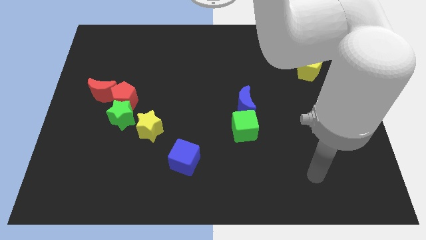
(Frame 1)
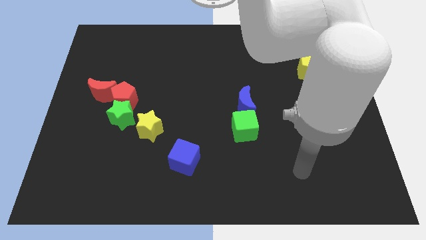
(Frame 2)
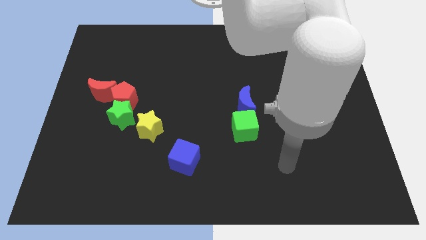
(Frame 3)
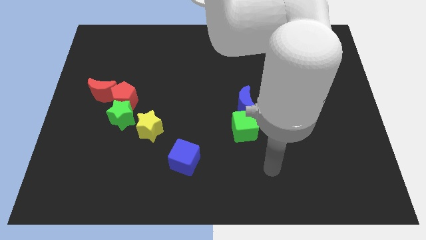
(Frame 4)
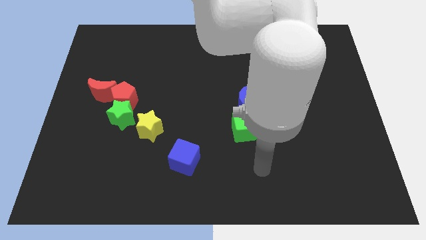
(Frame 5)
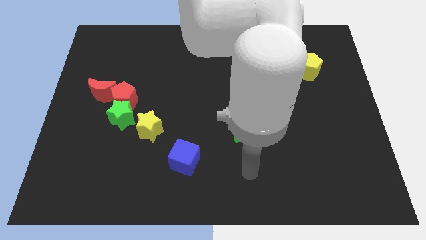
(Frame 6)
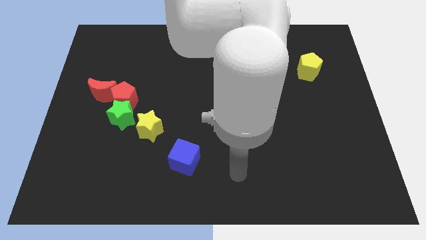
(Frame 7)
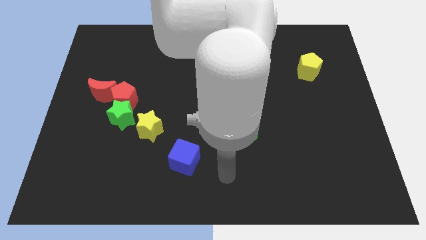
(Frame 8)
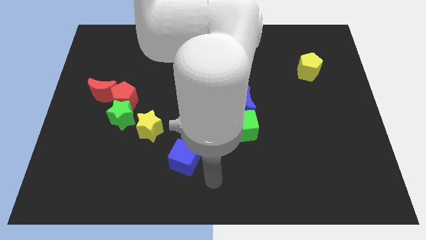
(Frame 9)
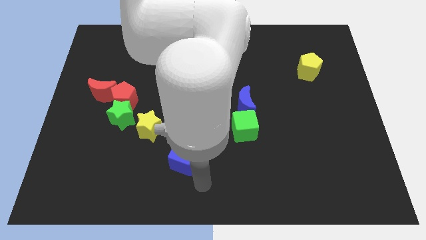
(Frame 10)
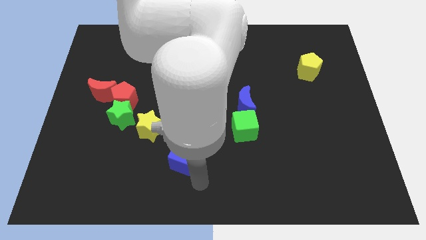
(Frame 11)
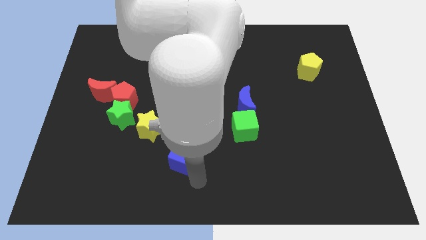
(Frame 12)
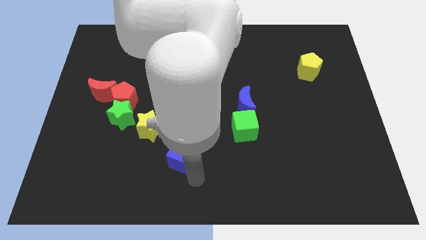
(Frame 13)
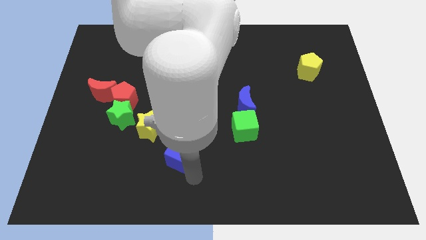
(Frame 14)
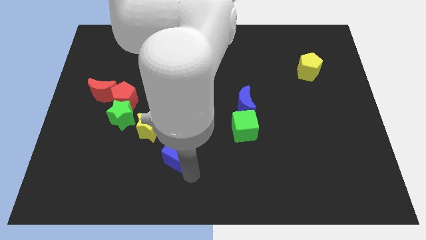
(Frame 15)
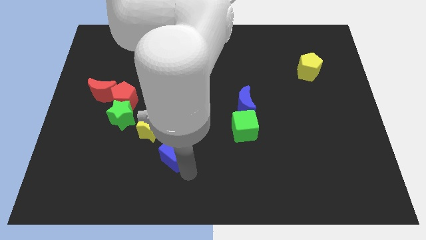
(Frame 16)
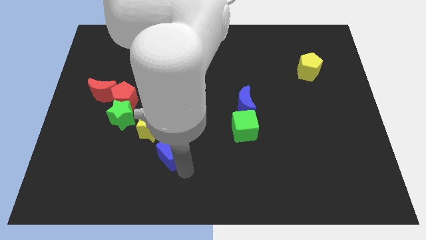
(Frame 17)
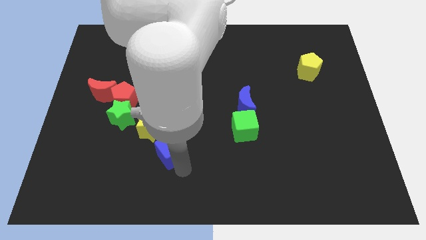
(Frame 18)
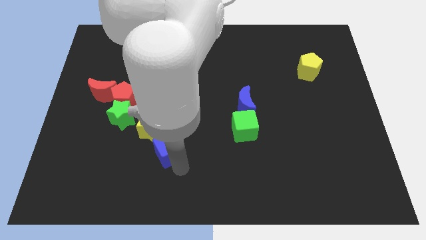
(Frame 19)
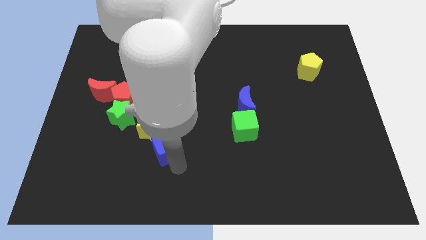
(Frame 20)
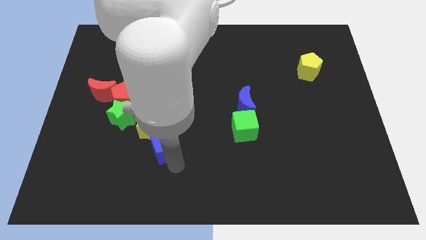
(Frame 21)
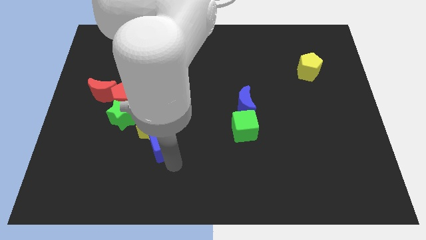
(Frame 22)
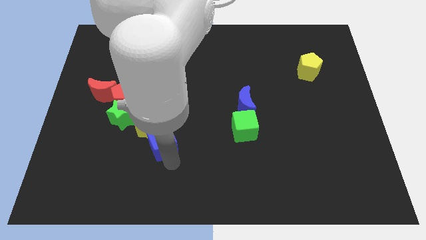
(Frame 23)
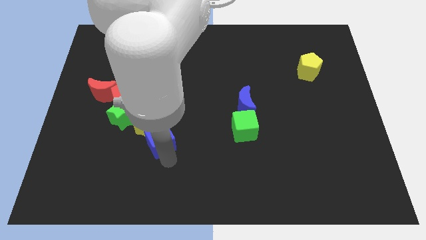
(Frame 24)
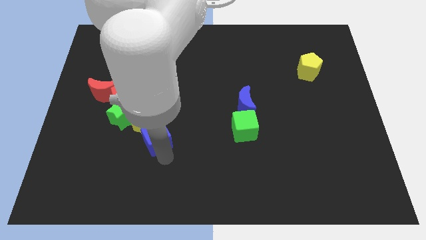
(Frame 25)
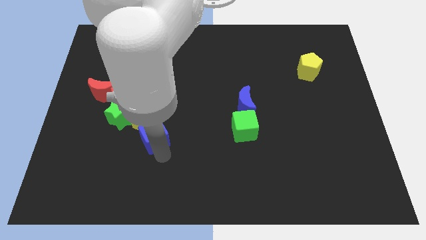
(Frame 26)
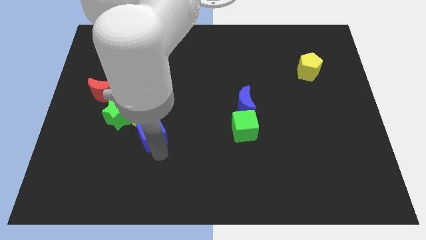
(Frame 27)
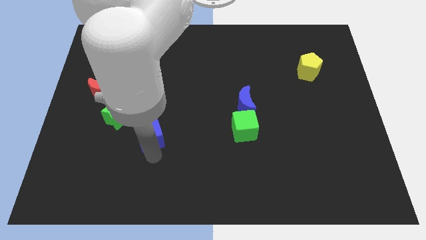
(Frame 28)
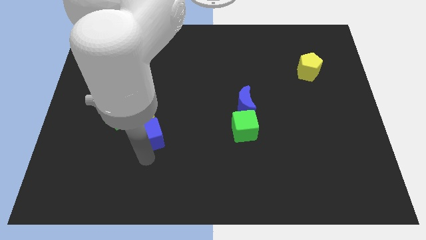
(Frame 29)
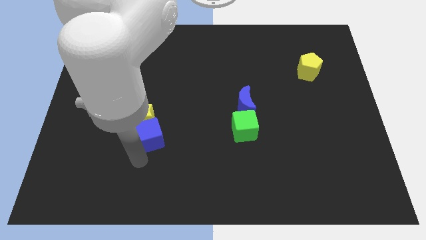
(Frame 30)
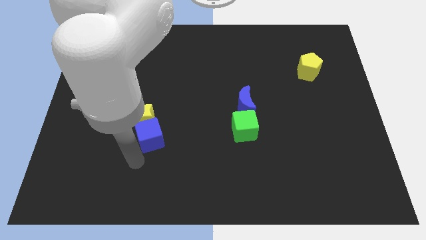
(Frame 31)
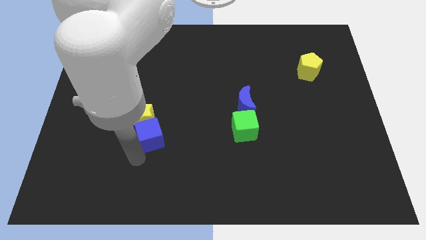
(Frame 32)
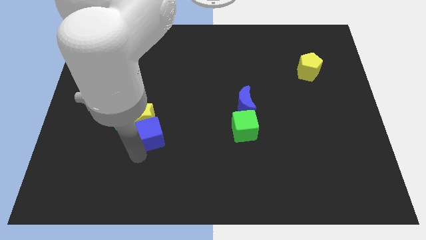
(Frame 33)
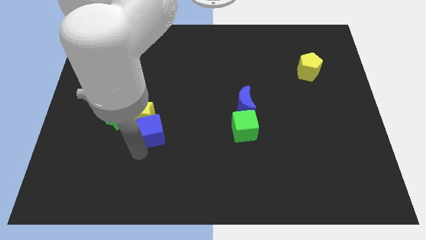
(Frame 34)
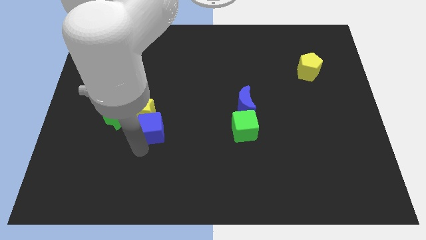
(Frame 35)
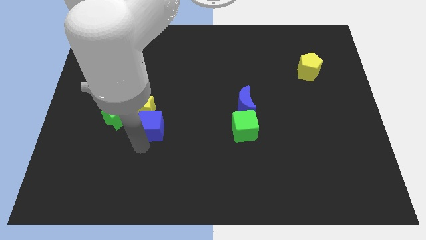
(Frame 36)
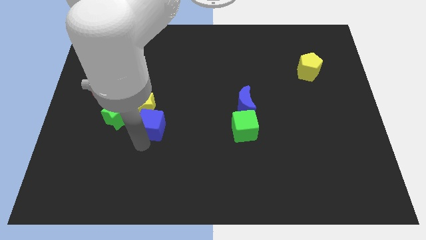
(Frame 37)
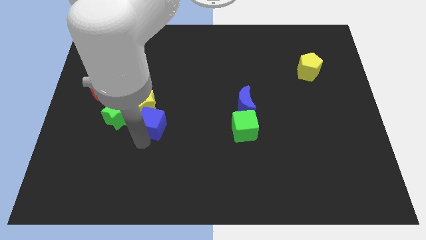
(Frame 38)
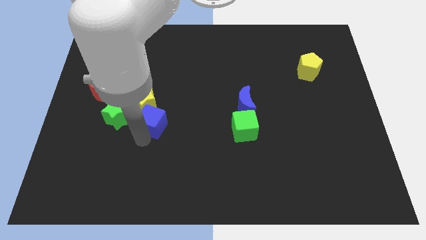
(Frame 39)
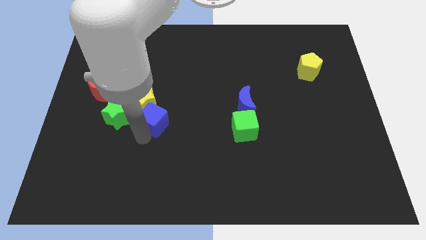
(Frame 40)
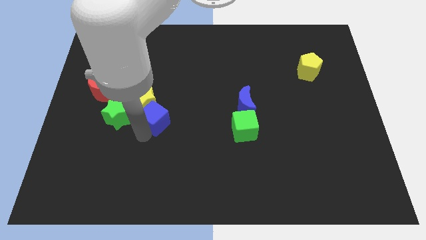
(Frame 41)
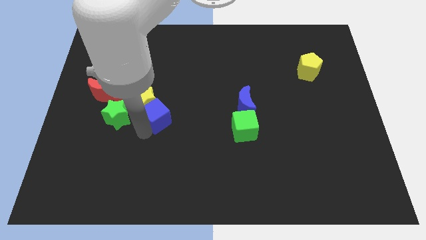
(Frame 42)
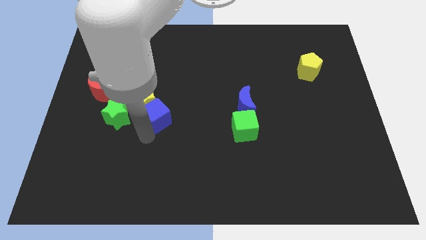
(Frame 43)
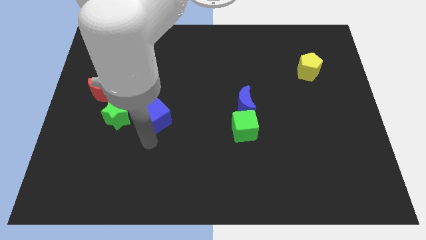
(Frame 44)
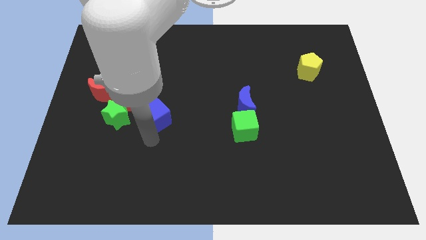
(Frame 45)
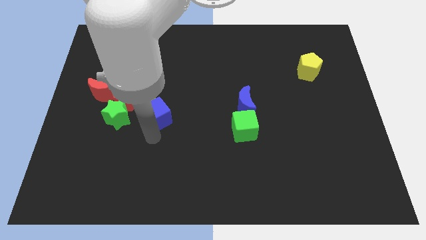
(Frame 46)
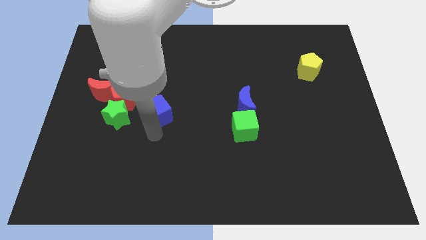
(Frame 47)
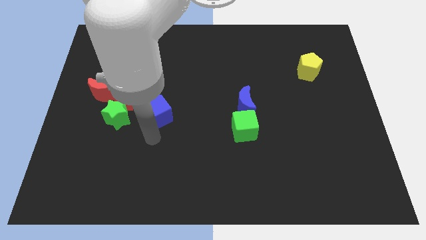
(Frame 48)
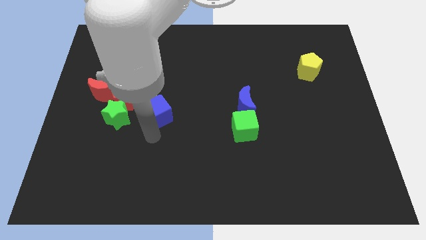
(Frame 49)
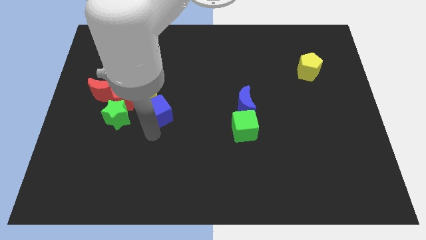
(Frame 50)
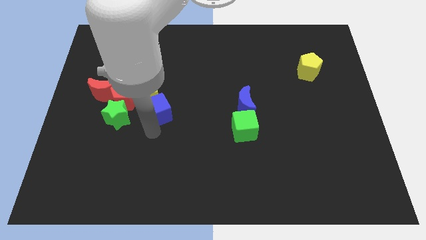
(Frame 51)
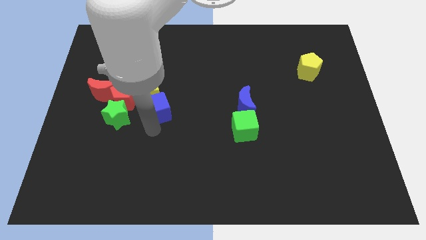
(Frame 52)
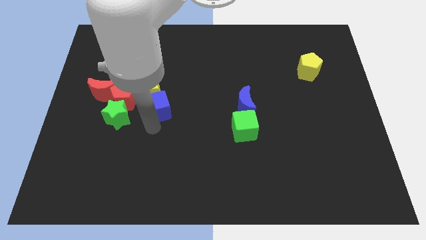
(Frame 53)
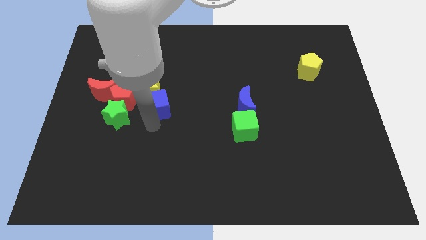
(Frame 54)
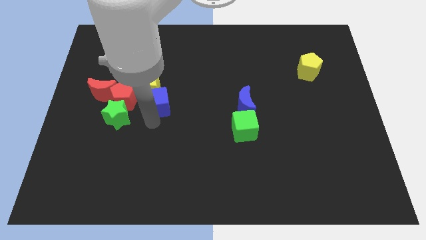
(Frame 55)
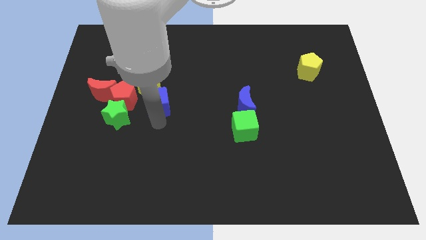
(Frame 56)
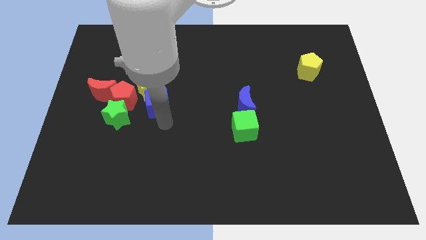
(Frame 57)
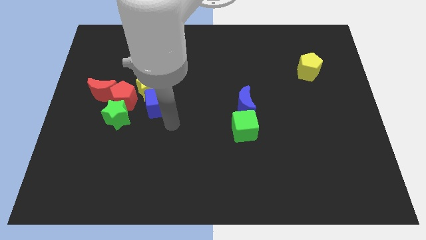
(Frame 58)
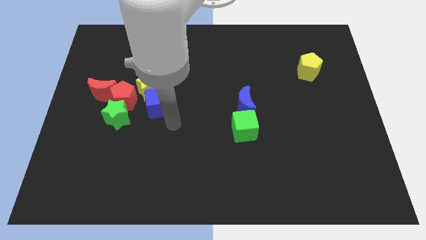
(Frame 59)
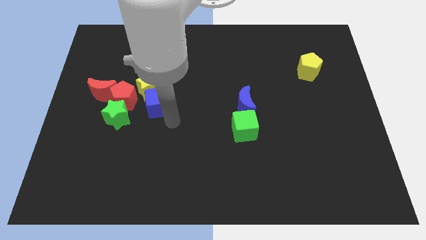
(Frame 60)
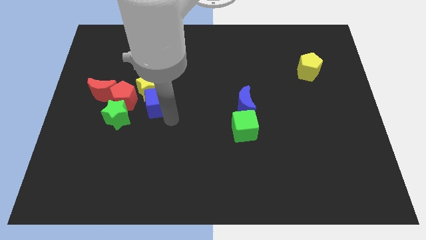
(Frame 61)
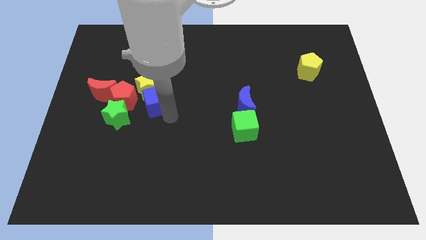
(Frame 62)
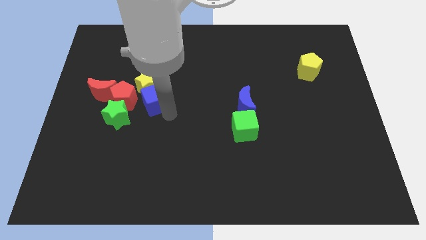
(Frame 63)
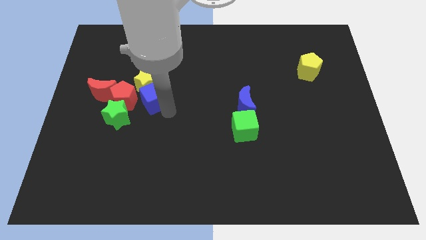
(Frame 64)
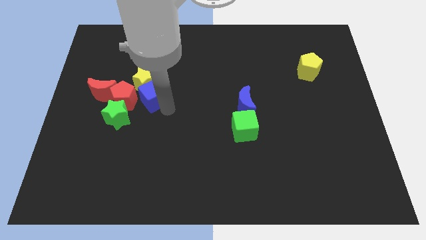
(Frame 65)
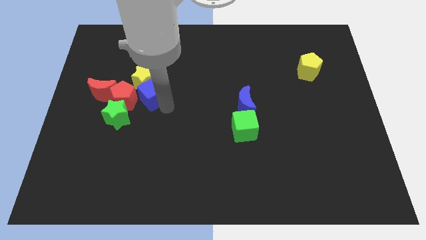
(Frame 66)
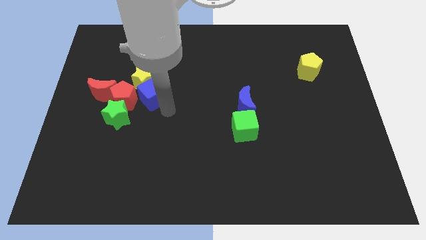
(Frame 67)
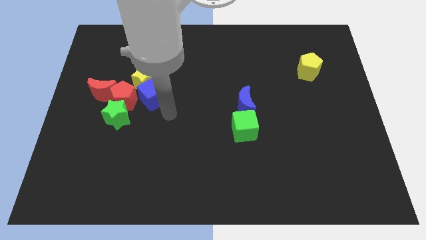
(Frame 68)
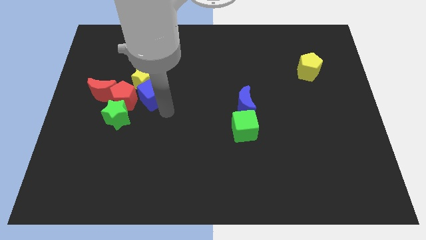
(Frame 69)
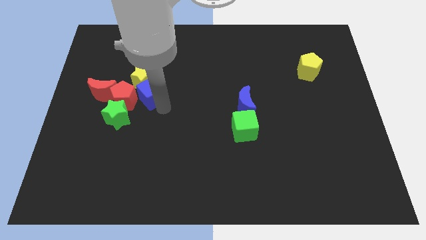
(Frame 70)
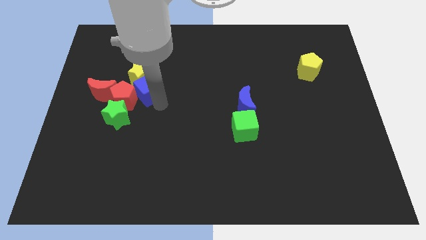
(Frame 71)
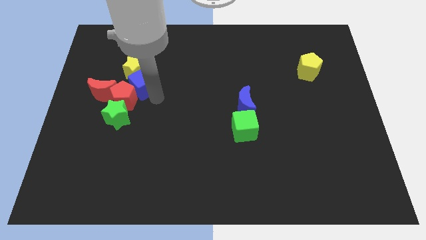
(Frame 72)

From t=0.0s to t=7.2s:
push the blue cube upwards and to the left

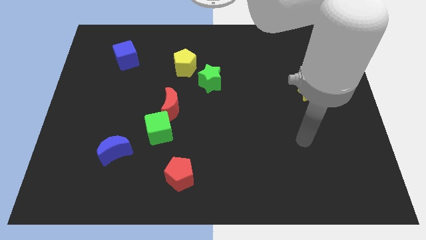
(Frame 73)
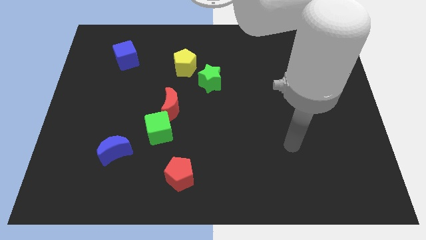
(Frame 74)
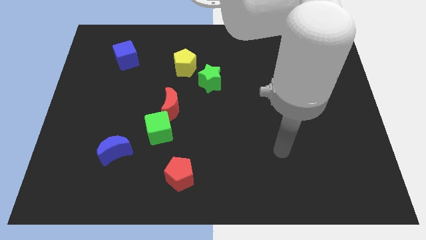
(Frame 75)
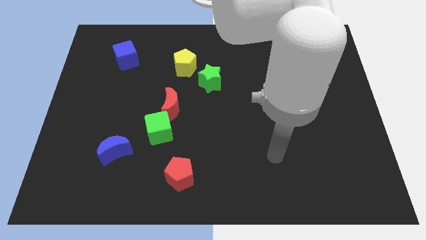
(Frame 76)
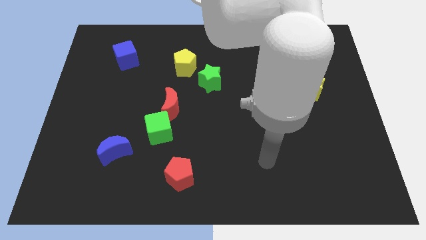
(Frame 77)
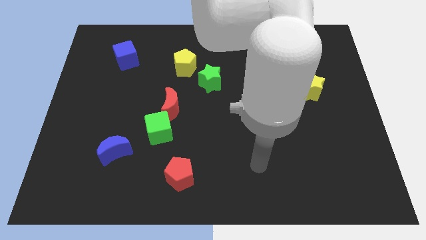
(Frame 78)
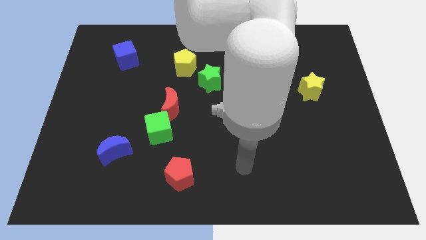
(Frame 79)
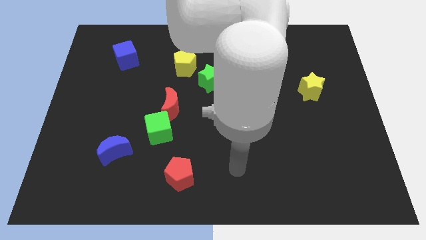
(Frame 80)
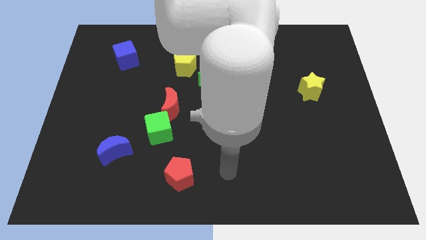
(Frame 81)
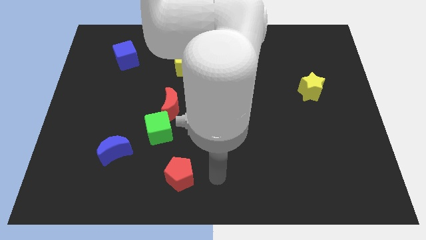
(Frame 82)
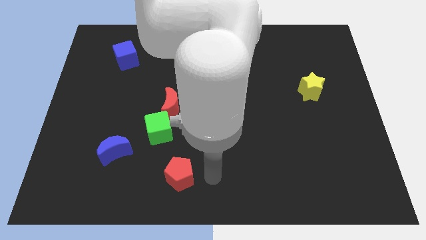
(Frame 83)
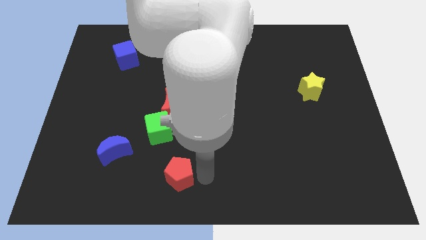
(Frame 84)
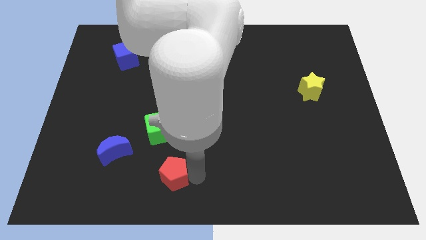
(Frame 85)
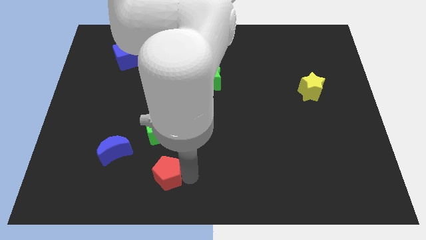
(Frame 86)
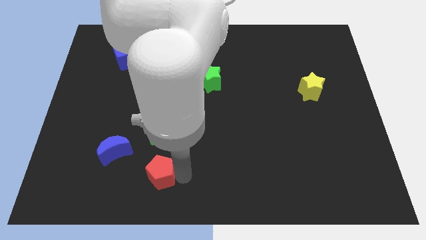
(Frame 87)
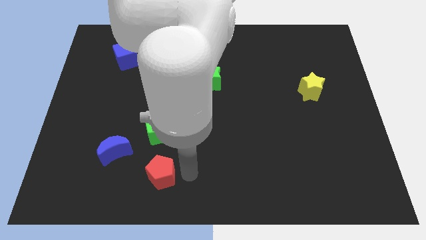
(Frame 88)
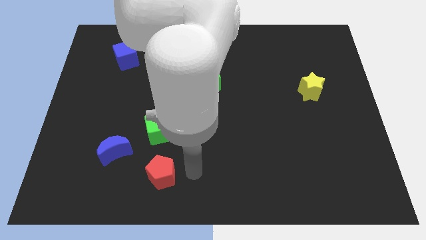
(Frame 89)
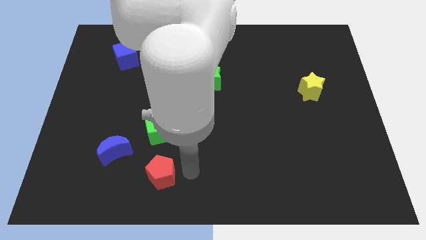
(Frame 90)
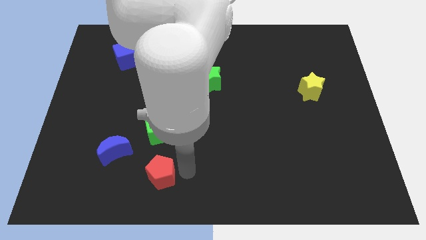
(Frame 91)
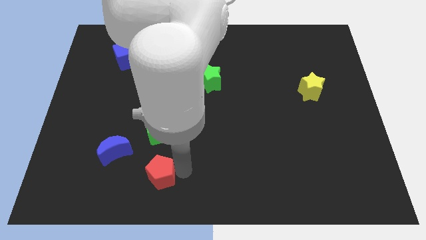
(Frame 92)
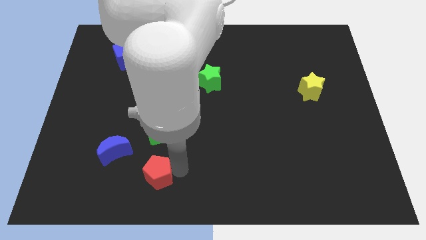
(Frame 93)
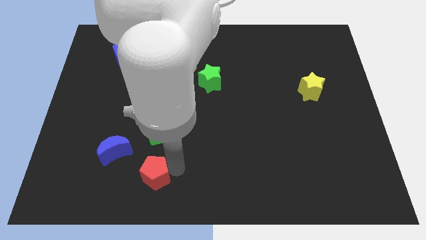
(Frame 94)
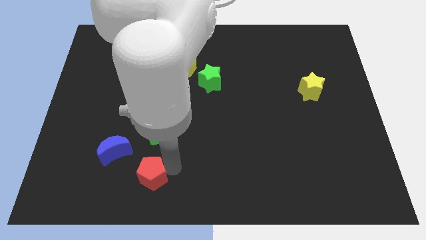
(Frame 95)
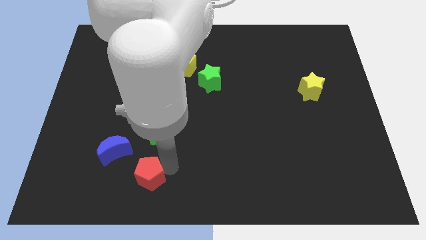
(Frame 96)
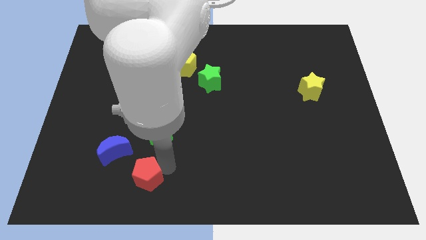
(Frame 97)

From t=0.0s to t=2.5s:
slightly push the red pentagon left
